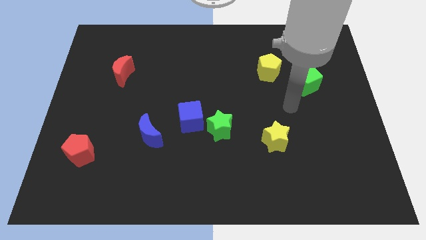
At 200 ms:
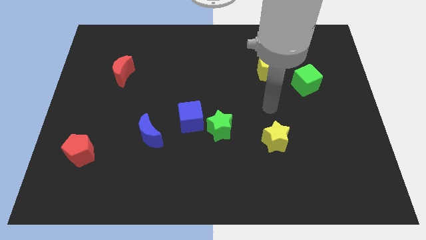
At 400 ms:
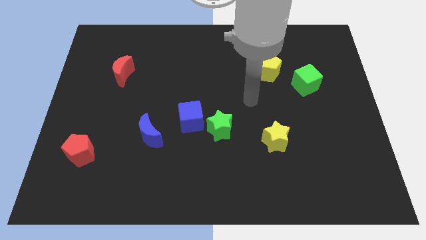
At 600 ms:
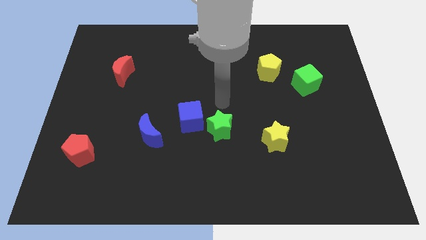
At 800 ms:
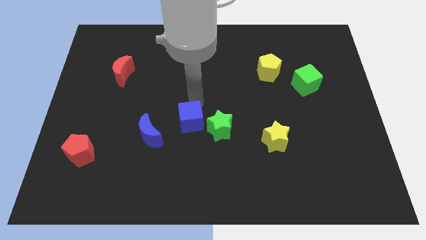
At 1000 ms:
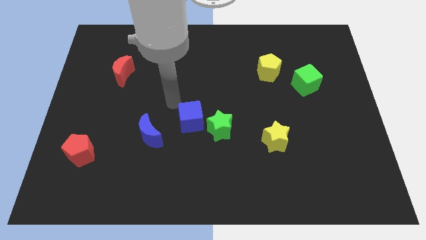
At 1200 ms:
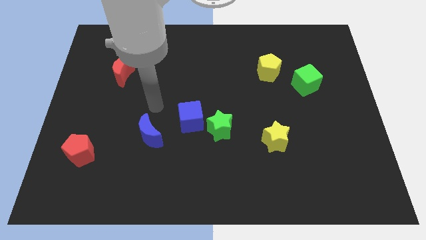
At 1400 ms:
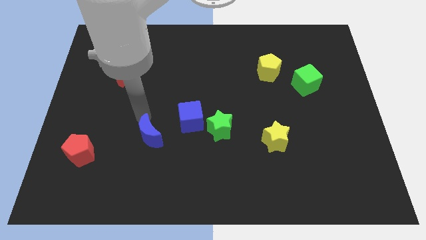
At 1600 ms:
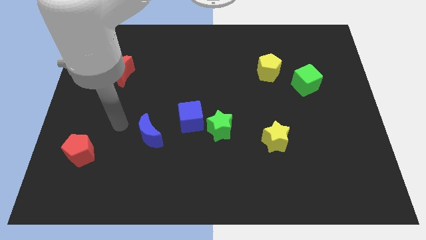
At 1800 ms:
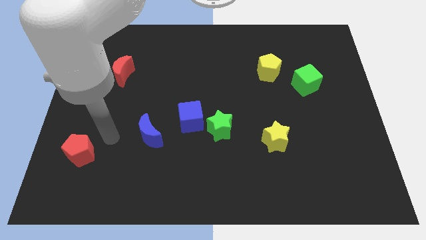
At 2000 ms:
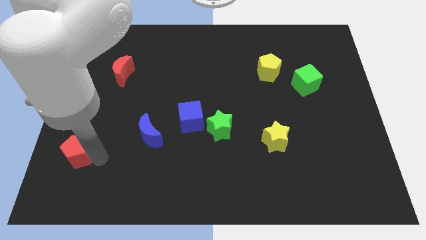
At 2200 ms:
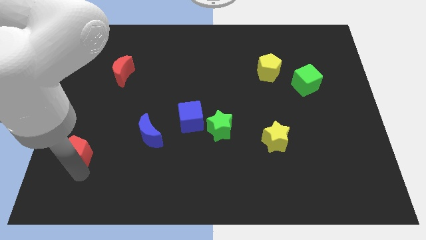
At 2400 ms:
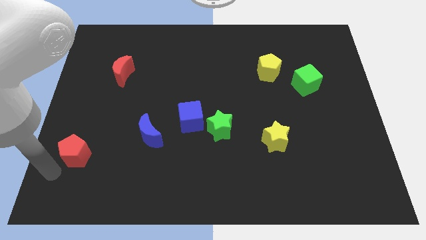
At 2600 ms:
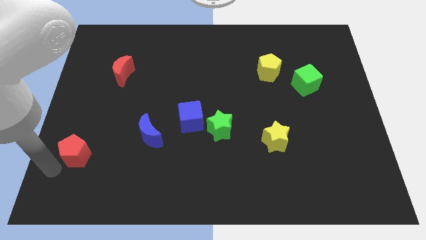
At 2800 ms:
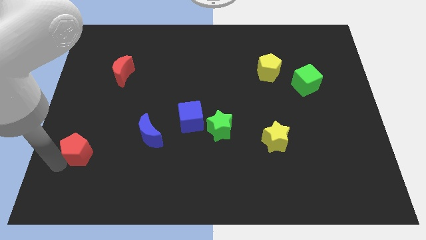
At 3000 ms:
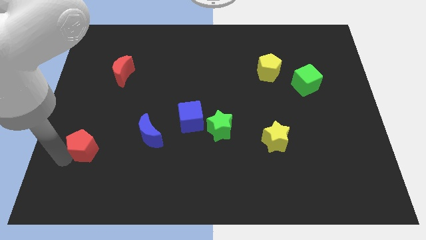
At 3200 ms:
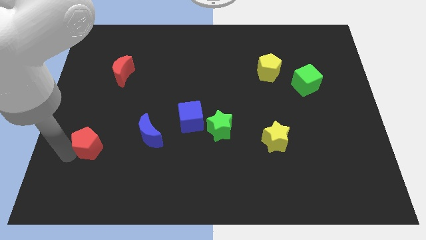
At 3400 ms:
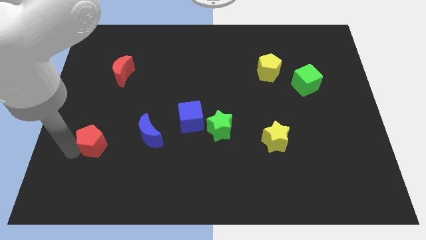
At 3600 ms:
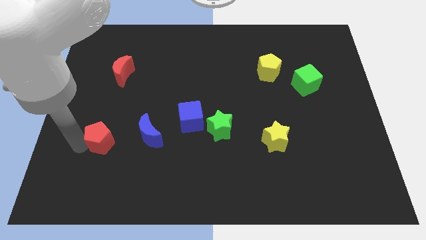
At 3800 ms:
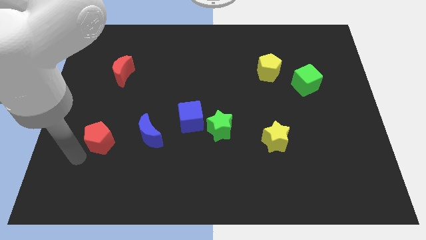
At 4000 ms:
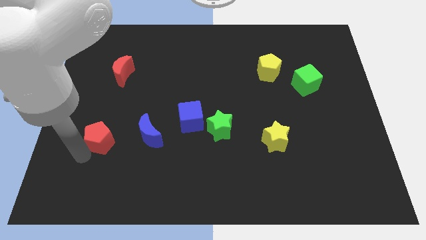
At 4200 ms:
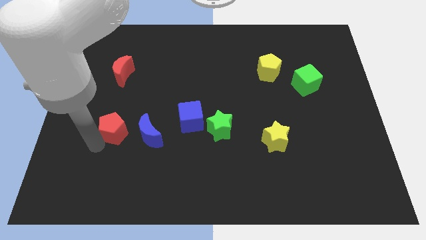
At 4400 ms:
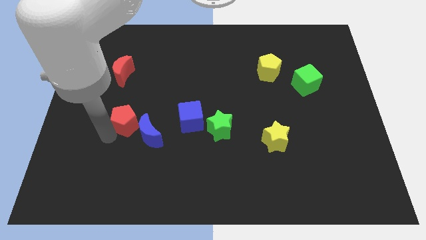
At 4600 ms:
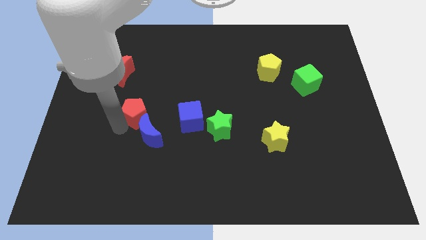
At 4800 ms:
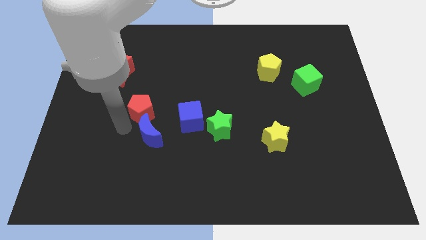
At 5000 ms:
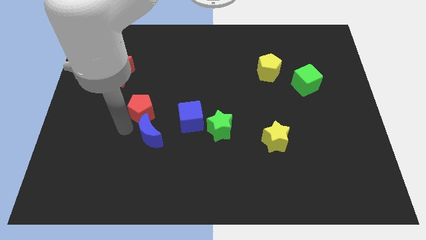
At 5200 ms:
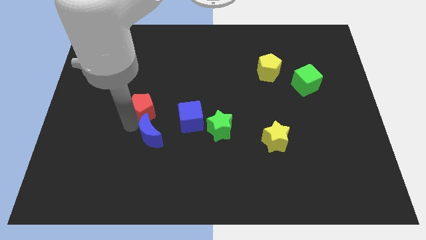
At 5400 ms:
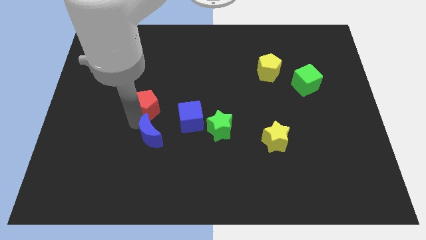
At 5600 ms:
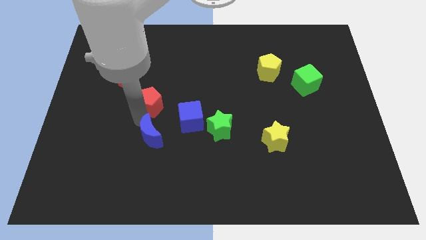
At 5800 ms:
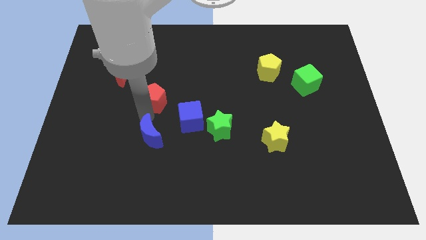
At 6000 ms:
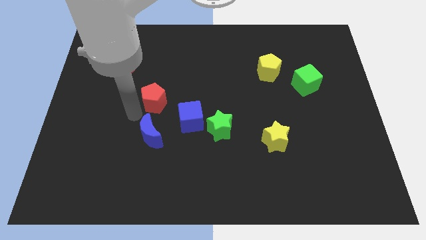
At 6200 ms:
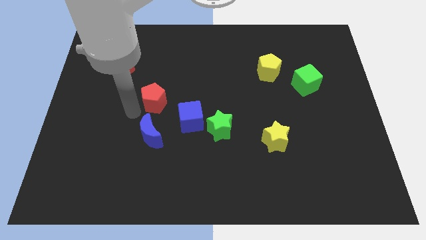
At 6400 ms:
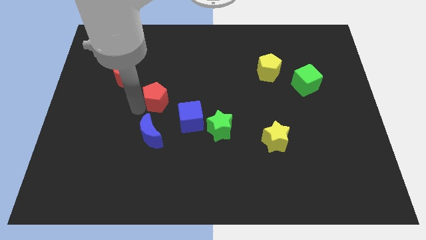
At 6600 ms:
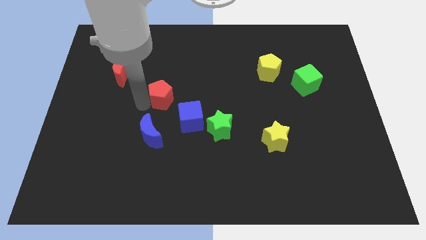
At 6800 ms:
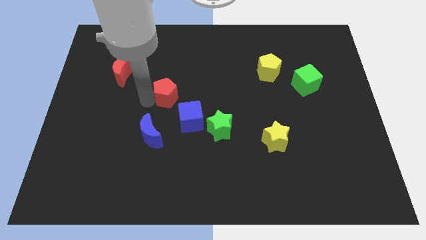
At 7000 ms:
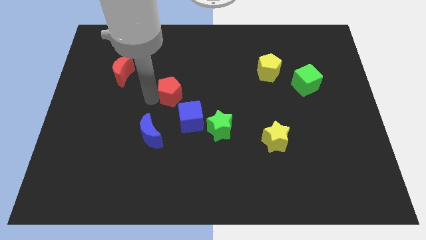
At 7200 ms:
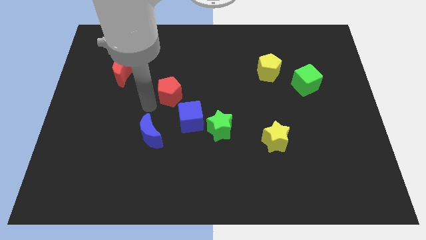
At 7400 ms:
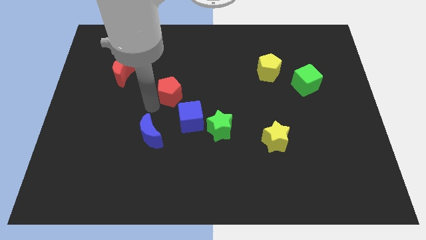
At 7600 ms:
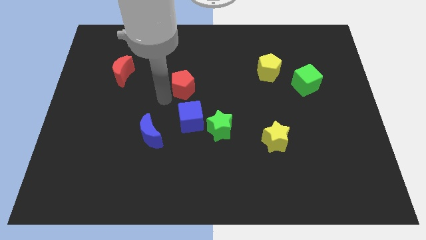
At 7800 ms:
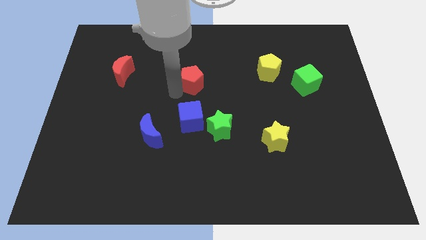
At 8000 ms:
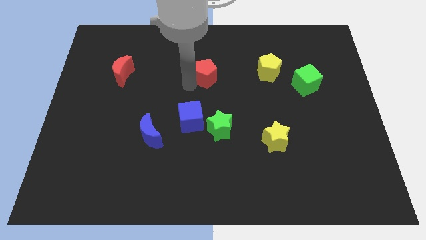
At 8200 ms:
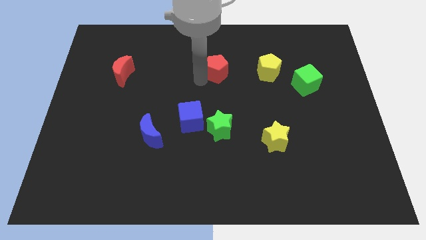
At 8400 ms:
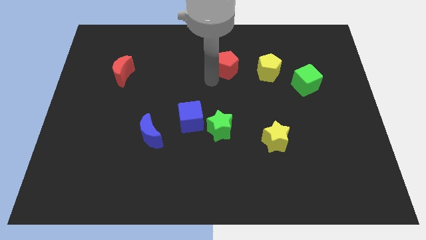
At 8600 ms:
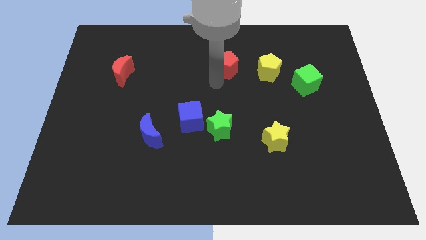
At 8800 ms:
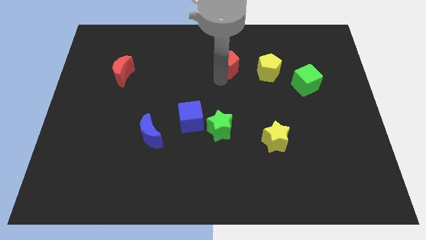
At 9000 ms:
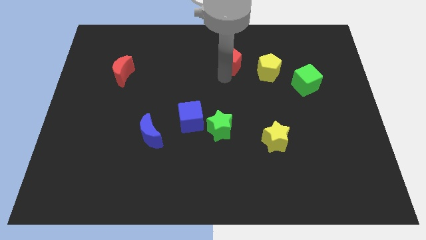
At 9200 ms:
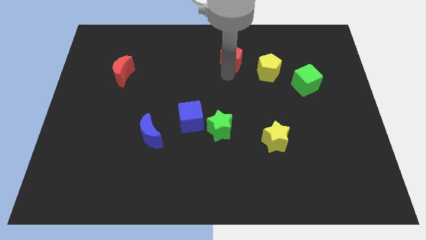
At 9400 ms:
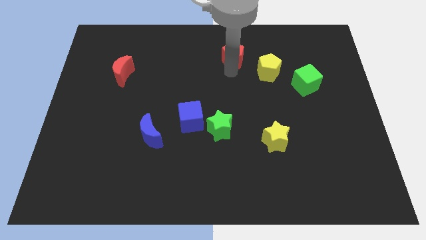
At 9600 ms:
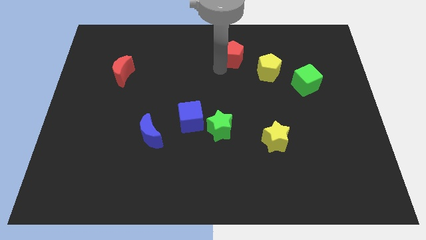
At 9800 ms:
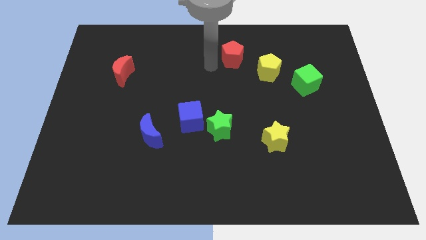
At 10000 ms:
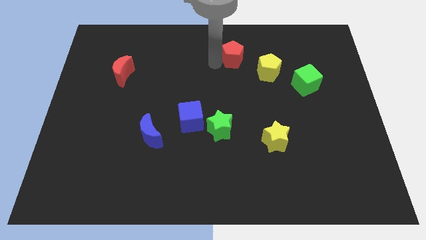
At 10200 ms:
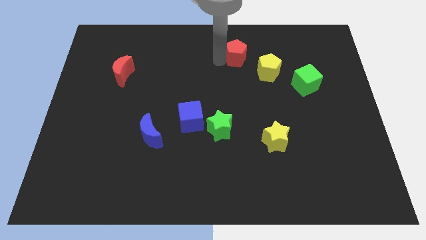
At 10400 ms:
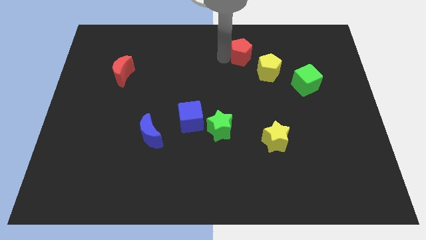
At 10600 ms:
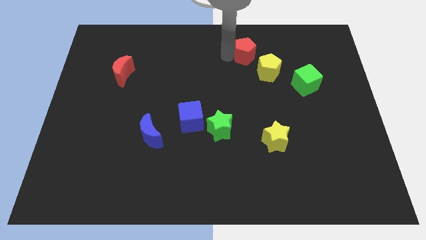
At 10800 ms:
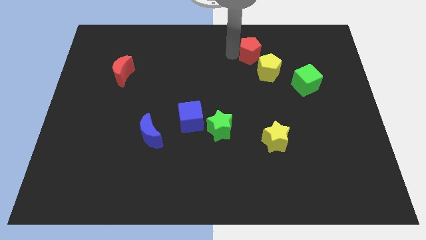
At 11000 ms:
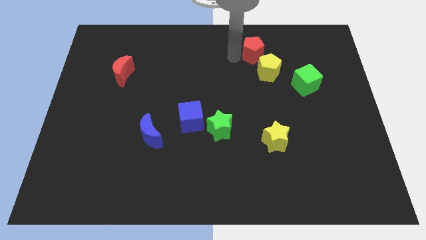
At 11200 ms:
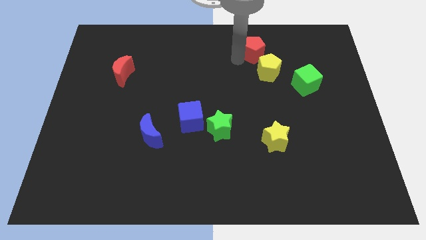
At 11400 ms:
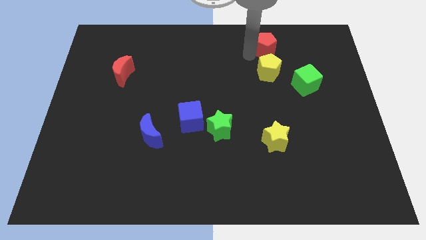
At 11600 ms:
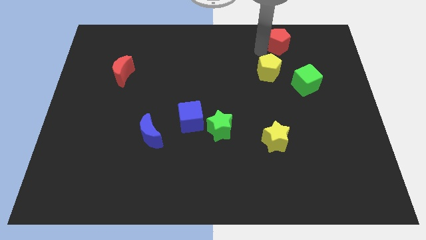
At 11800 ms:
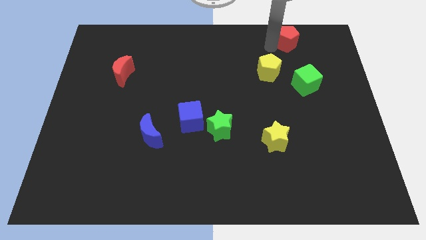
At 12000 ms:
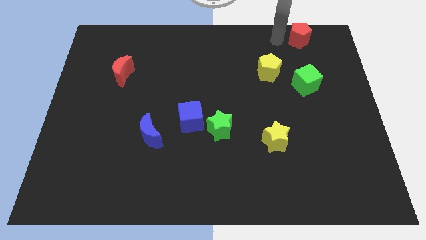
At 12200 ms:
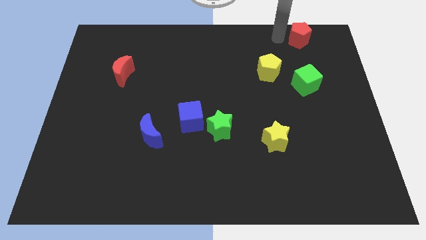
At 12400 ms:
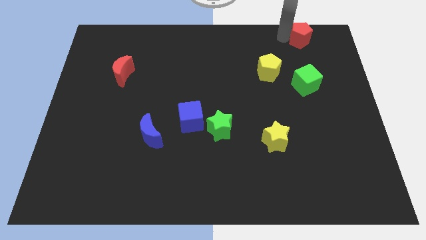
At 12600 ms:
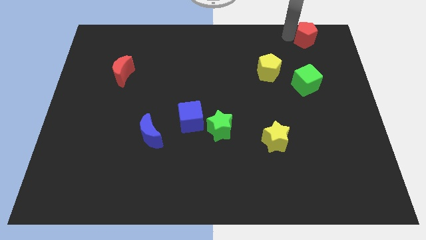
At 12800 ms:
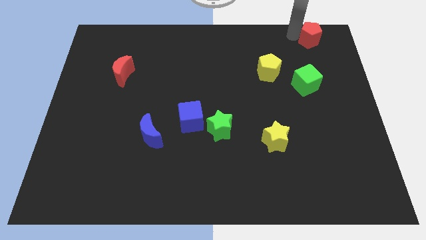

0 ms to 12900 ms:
push the red pentagon to the top right of the board
